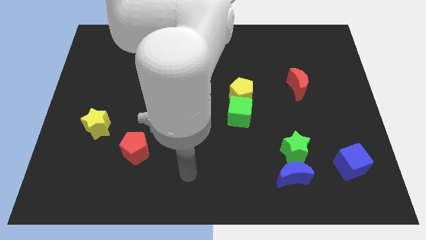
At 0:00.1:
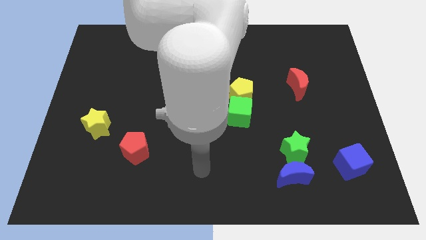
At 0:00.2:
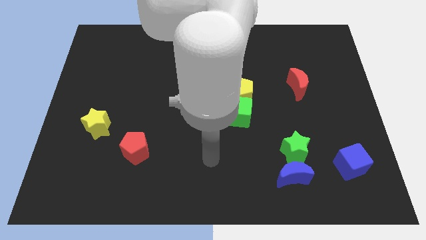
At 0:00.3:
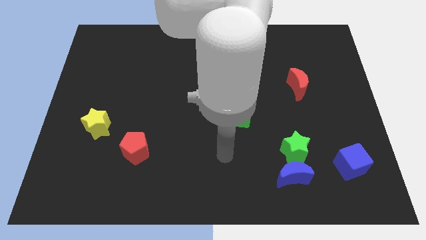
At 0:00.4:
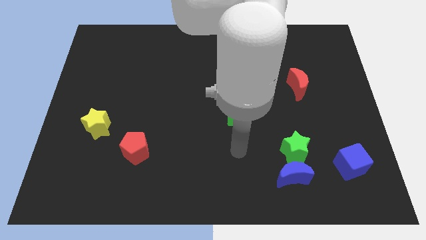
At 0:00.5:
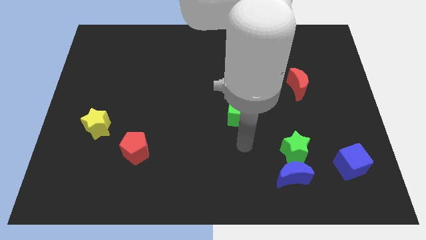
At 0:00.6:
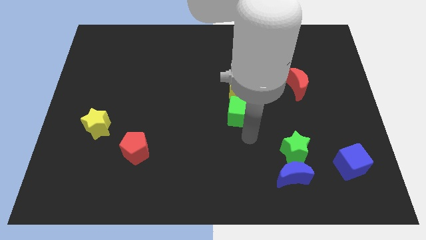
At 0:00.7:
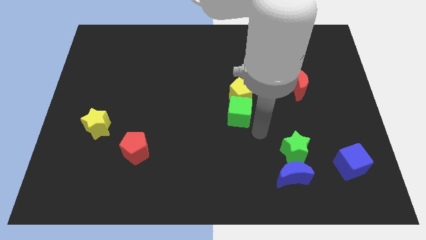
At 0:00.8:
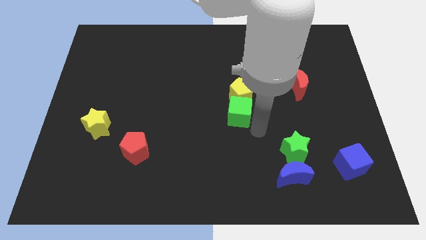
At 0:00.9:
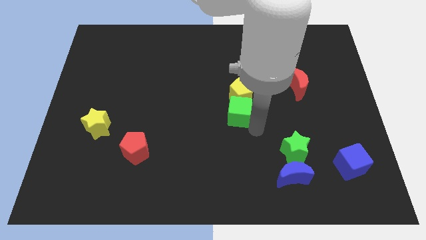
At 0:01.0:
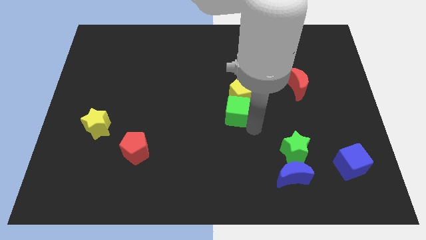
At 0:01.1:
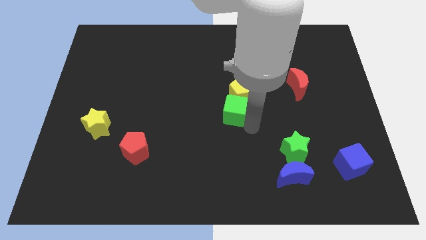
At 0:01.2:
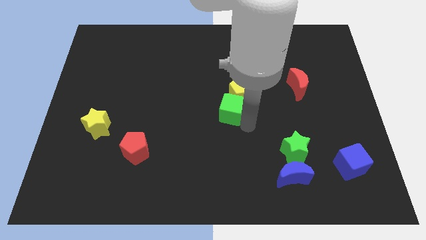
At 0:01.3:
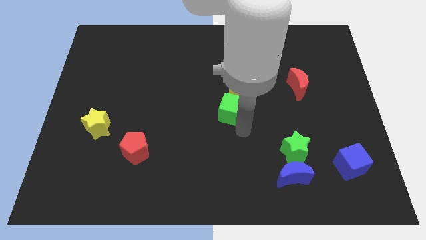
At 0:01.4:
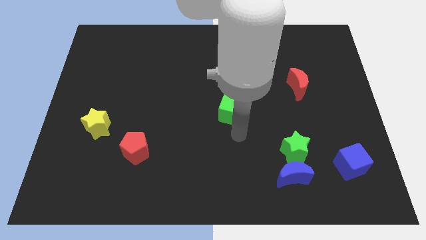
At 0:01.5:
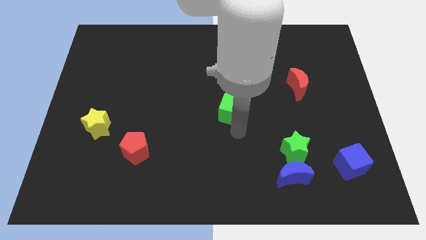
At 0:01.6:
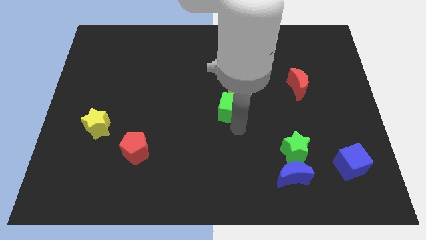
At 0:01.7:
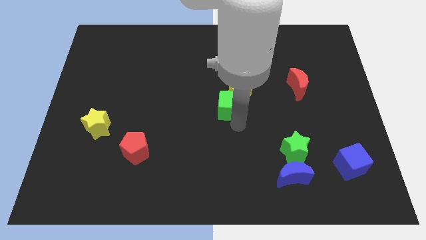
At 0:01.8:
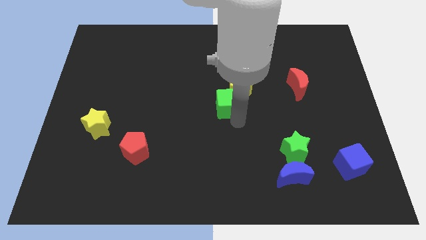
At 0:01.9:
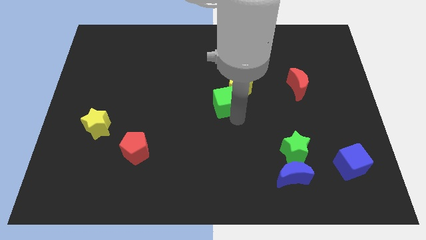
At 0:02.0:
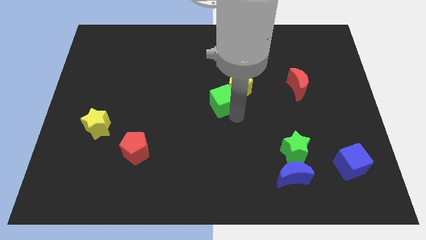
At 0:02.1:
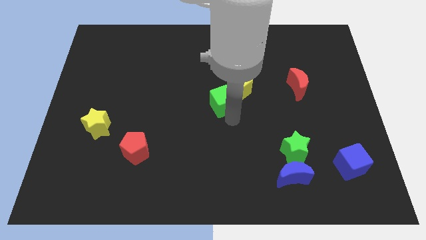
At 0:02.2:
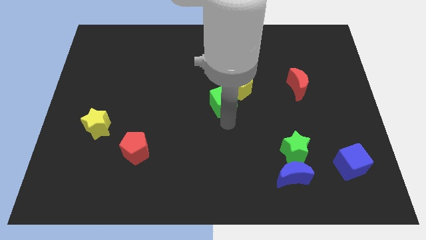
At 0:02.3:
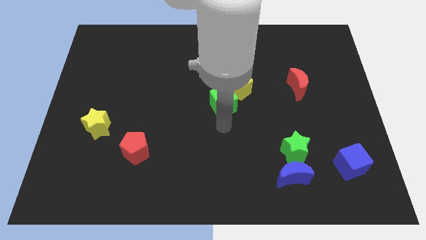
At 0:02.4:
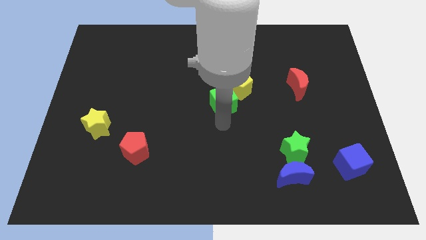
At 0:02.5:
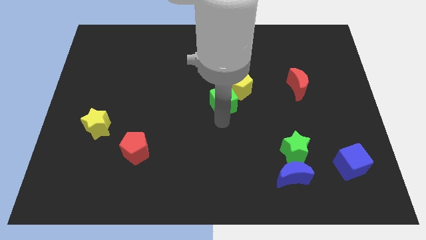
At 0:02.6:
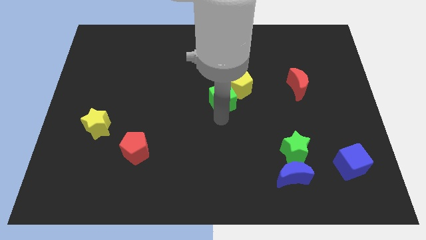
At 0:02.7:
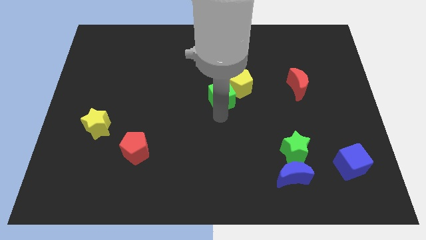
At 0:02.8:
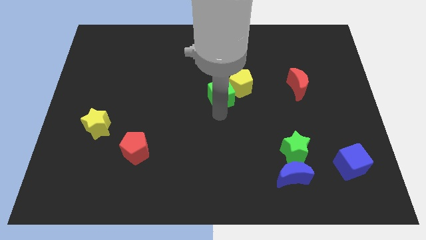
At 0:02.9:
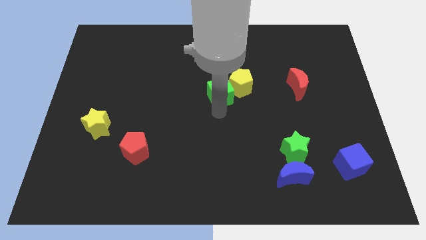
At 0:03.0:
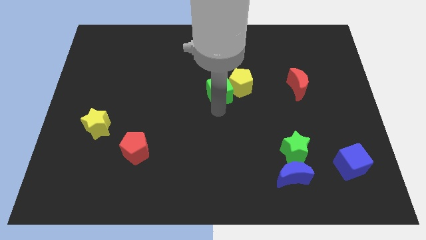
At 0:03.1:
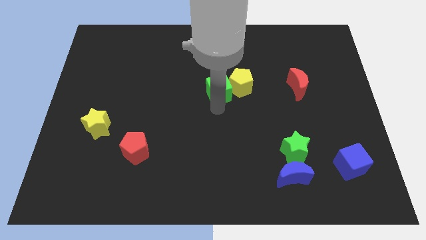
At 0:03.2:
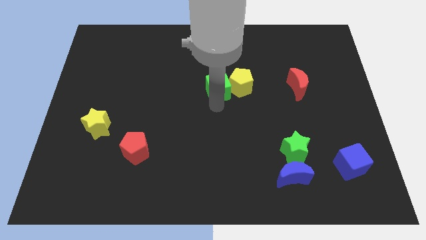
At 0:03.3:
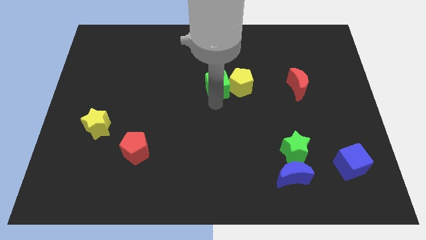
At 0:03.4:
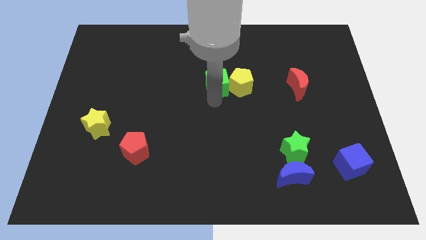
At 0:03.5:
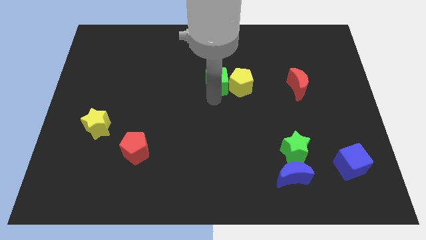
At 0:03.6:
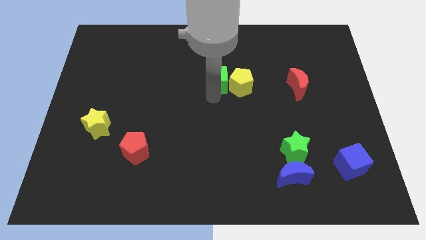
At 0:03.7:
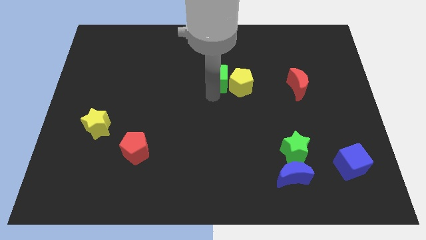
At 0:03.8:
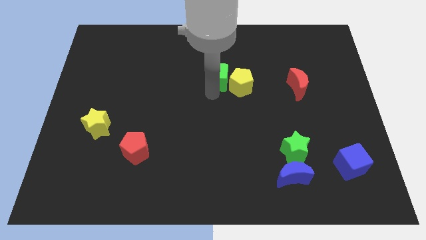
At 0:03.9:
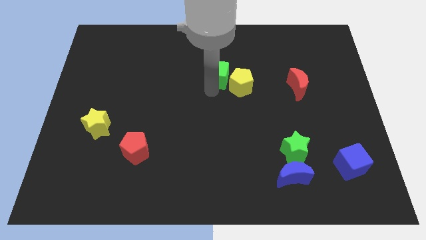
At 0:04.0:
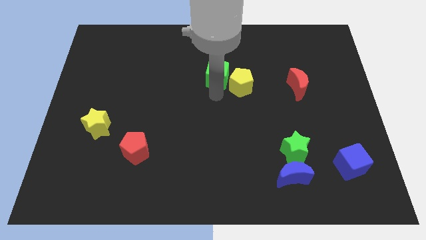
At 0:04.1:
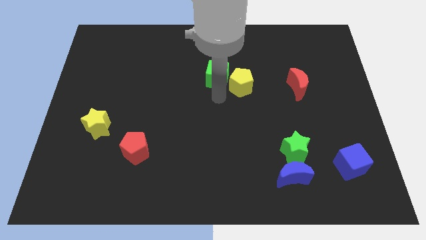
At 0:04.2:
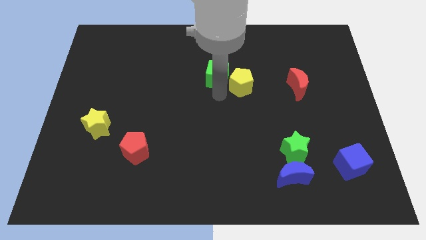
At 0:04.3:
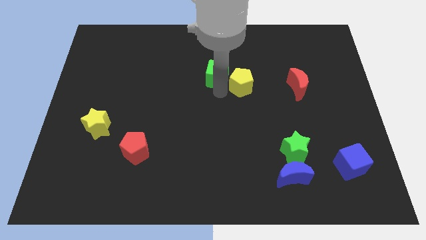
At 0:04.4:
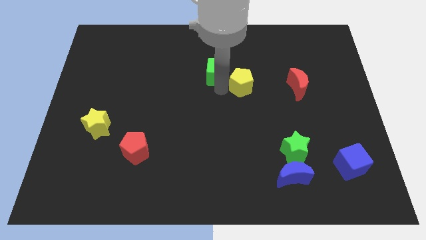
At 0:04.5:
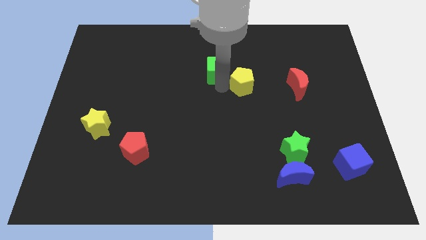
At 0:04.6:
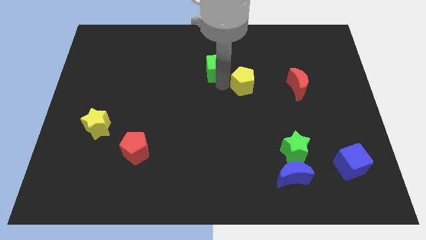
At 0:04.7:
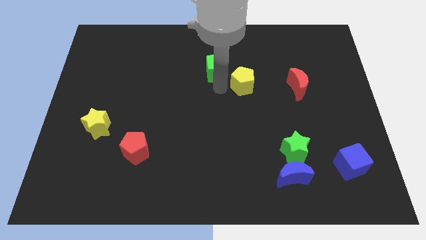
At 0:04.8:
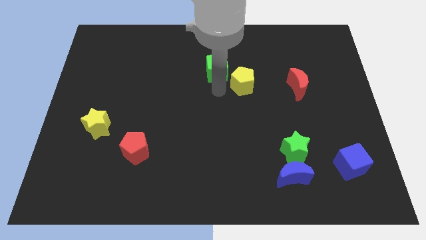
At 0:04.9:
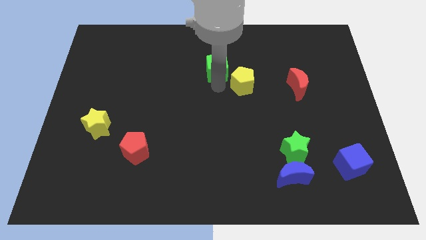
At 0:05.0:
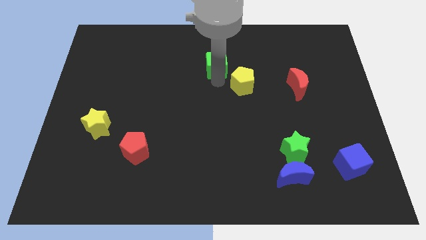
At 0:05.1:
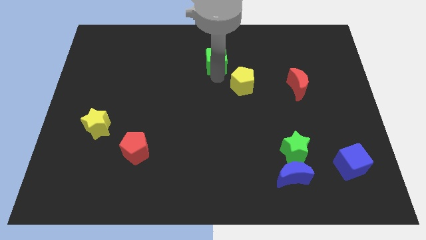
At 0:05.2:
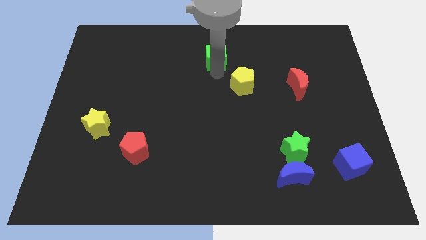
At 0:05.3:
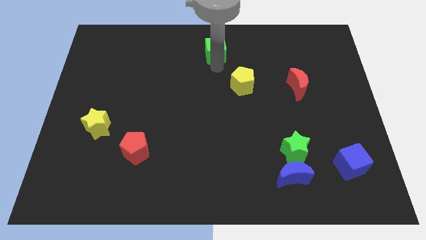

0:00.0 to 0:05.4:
move the green cube to the towards your base

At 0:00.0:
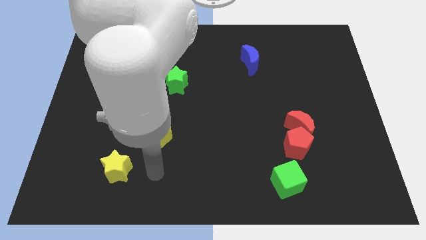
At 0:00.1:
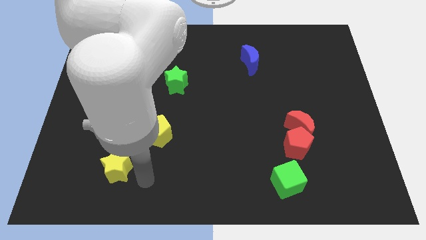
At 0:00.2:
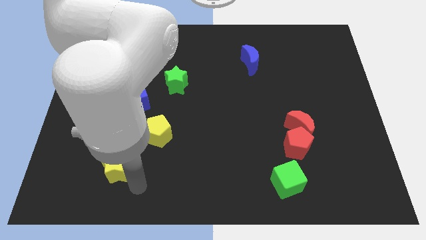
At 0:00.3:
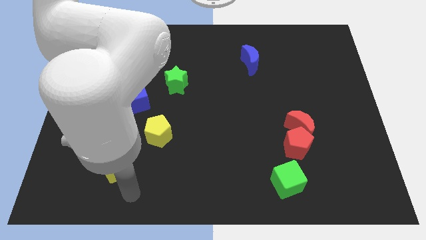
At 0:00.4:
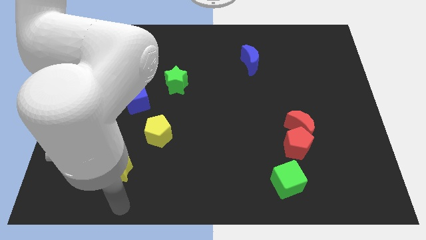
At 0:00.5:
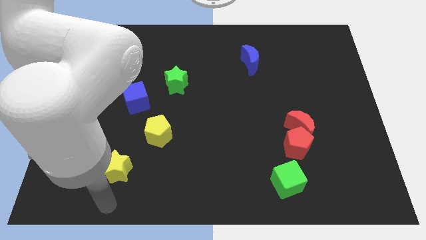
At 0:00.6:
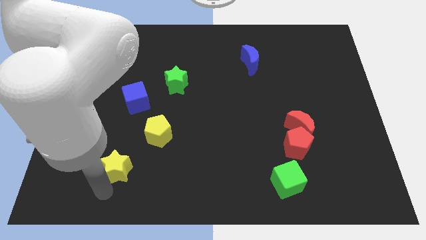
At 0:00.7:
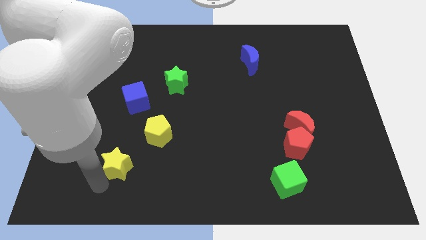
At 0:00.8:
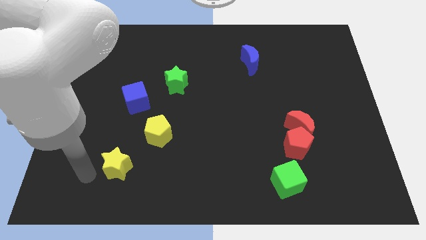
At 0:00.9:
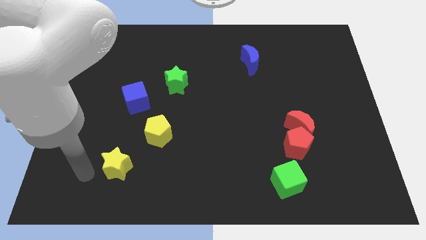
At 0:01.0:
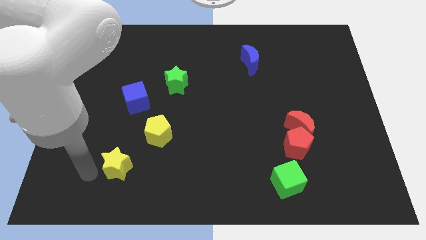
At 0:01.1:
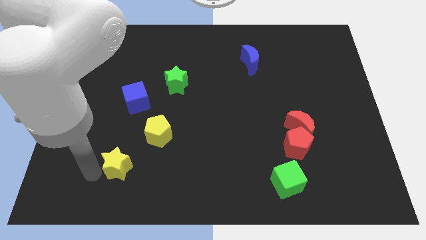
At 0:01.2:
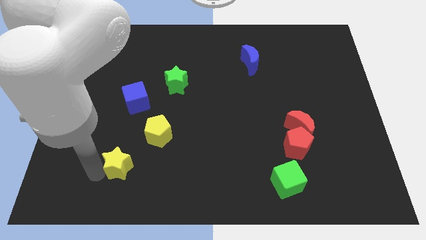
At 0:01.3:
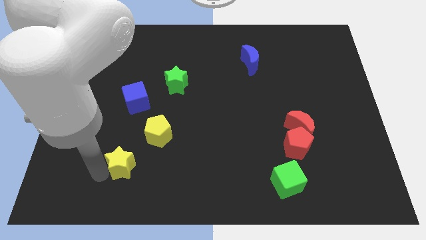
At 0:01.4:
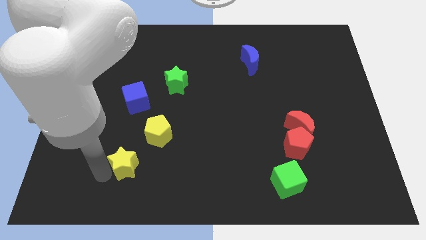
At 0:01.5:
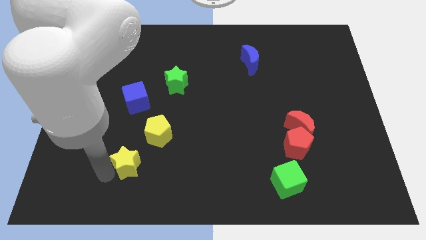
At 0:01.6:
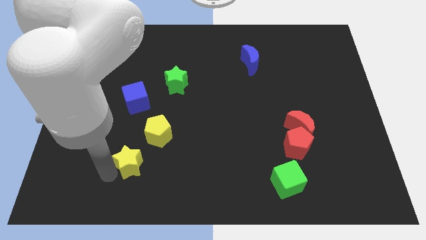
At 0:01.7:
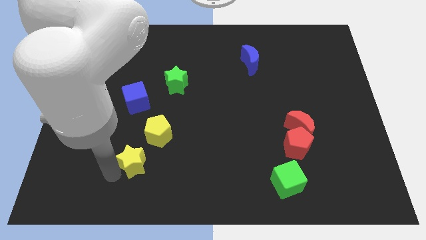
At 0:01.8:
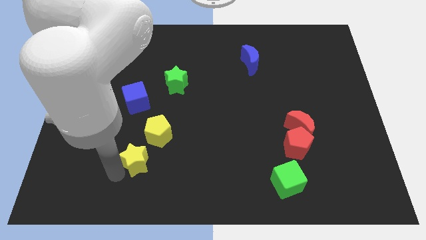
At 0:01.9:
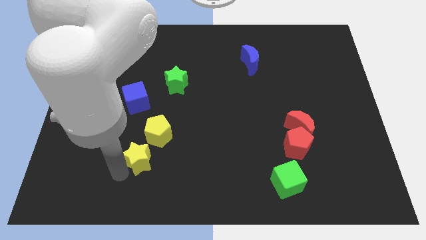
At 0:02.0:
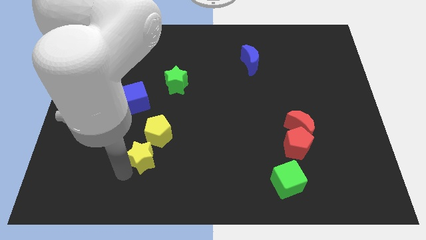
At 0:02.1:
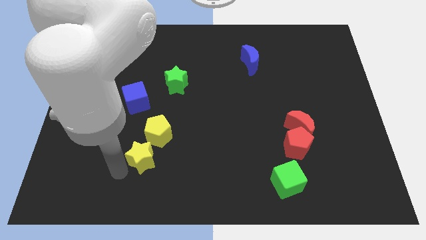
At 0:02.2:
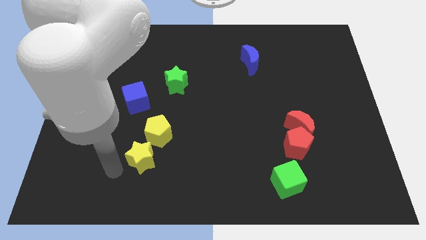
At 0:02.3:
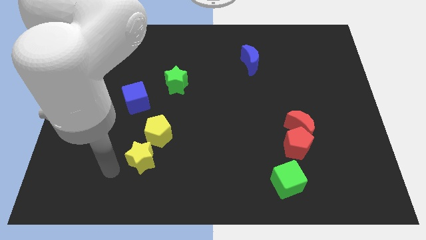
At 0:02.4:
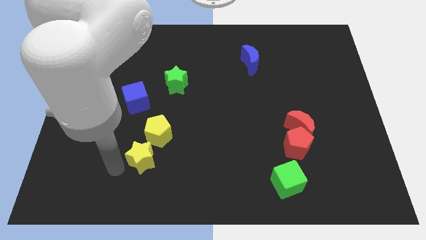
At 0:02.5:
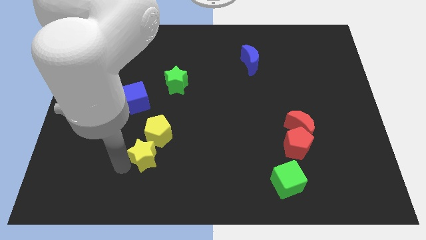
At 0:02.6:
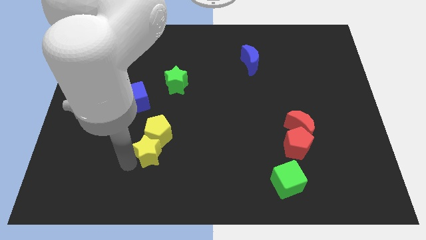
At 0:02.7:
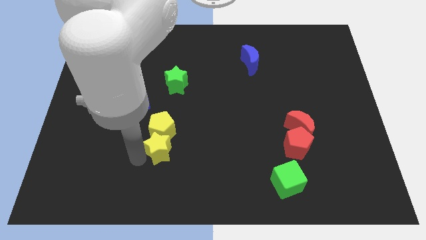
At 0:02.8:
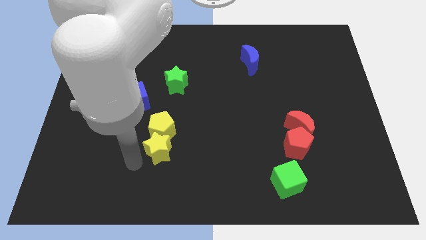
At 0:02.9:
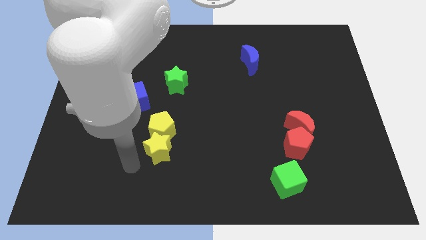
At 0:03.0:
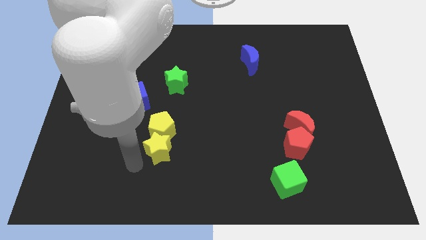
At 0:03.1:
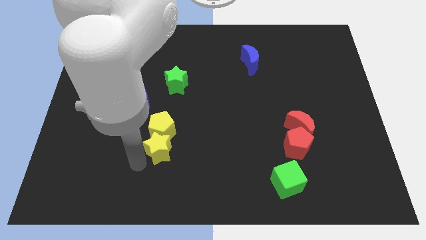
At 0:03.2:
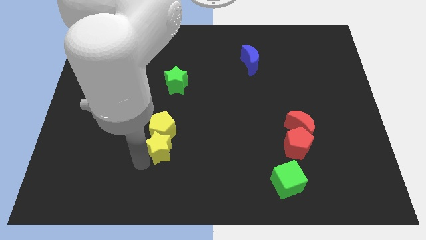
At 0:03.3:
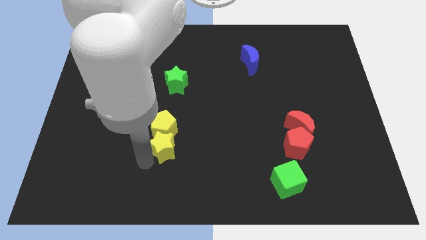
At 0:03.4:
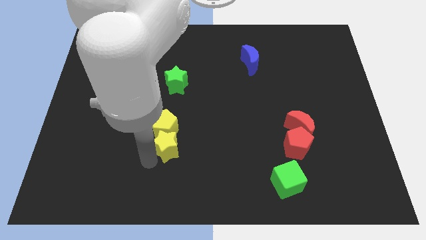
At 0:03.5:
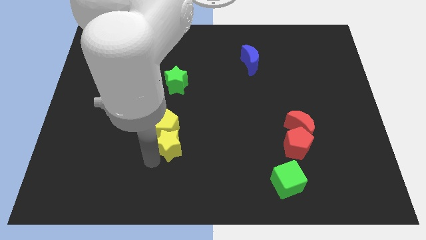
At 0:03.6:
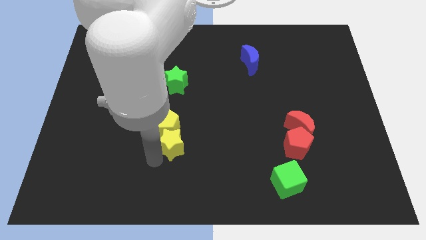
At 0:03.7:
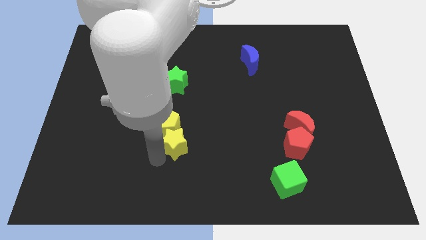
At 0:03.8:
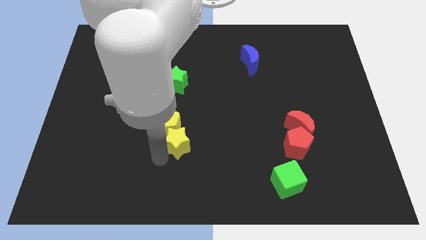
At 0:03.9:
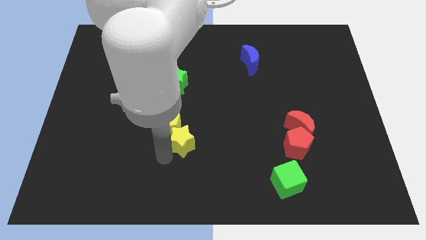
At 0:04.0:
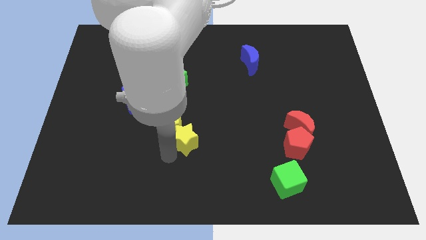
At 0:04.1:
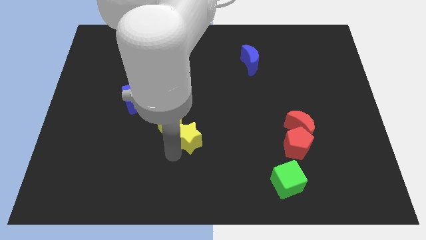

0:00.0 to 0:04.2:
push the yellow star to the center
